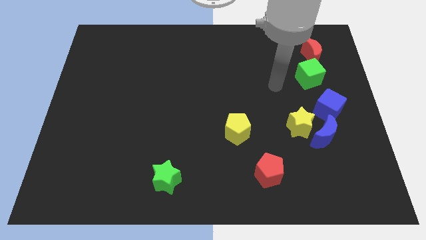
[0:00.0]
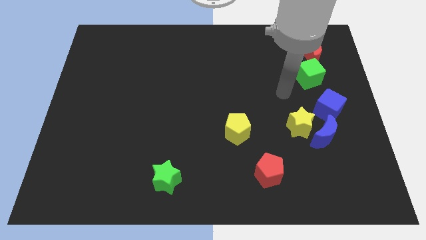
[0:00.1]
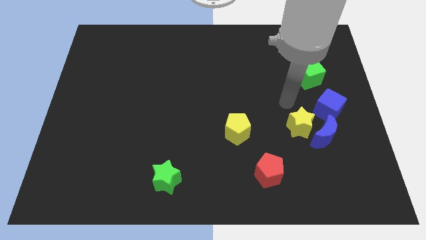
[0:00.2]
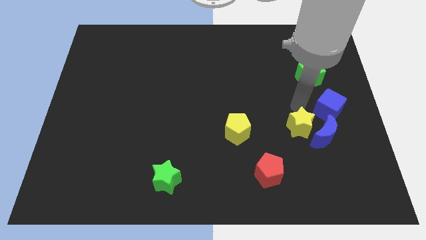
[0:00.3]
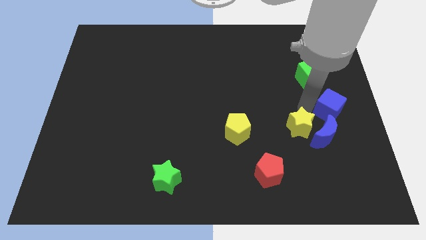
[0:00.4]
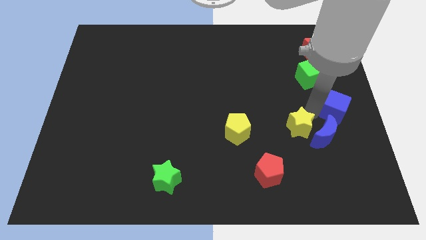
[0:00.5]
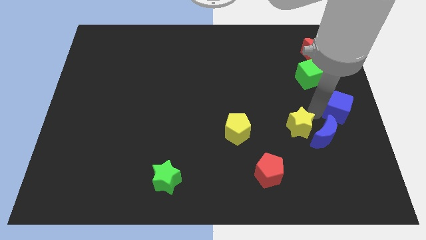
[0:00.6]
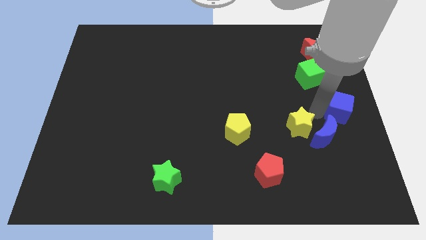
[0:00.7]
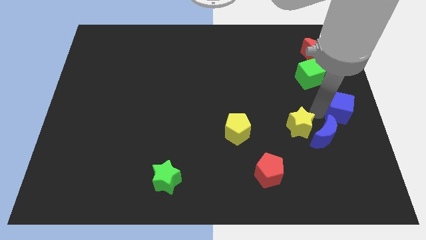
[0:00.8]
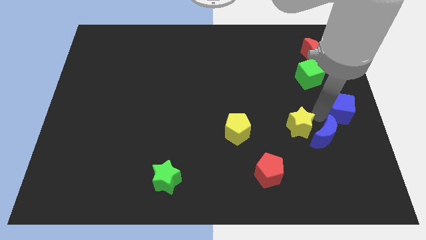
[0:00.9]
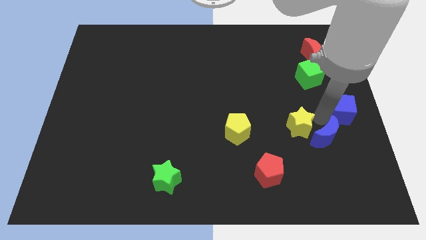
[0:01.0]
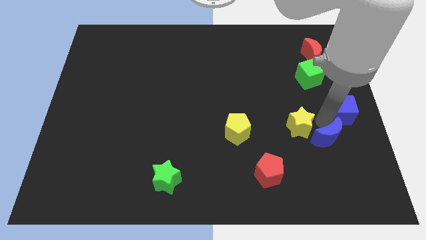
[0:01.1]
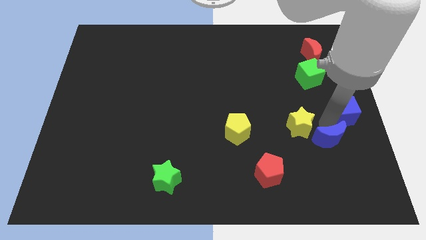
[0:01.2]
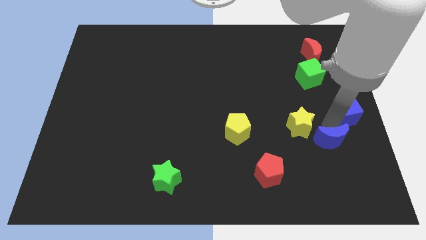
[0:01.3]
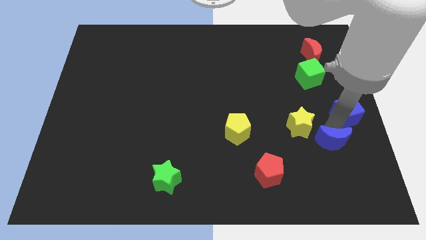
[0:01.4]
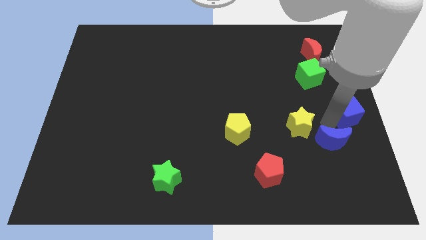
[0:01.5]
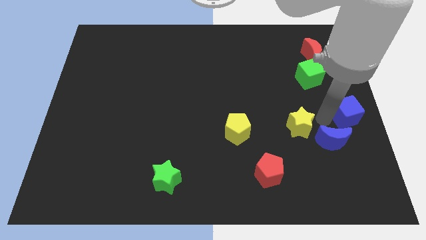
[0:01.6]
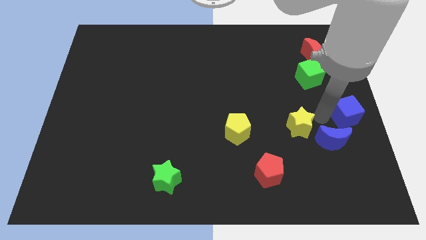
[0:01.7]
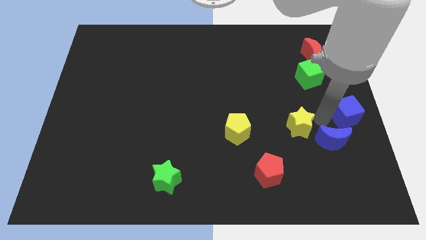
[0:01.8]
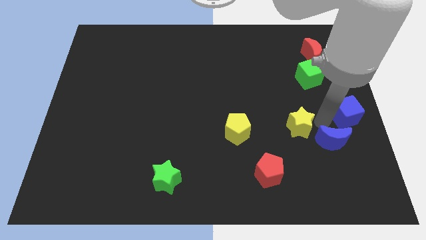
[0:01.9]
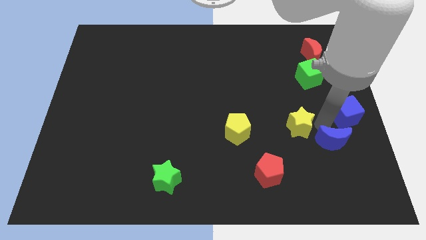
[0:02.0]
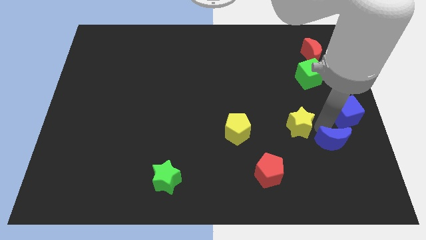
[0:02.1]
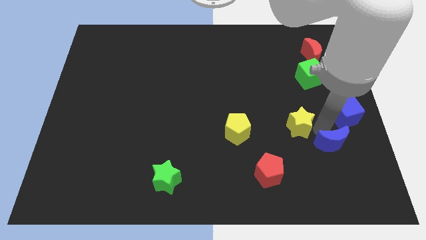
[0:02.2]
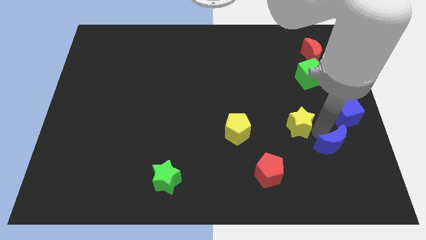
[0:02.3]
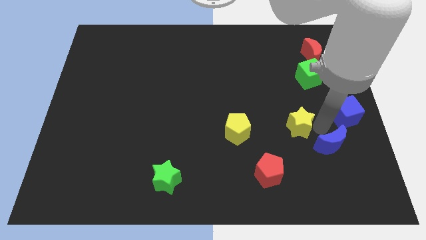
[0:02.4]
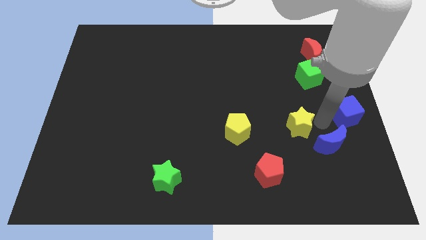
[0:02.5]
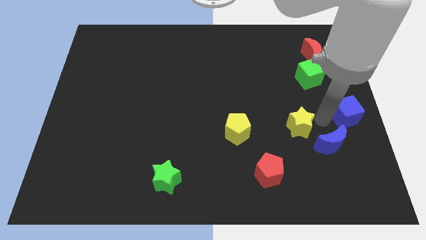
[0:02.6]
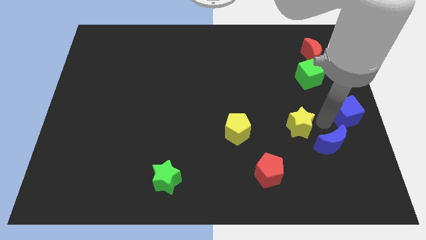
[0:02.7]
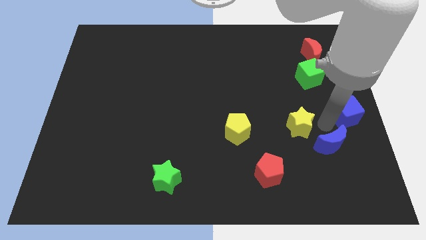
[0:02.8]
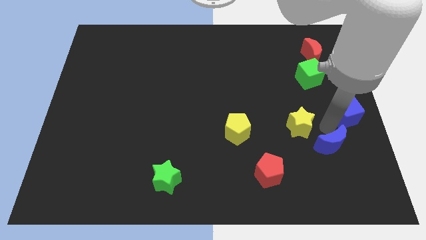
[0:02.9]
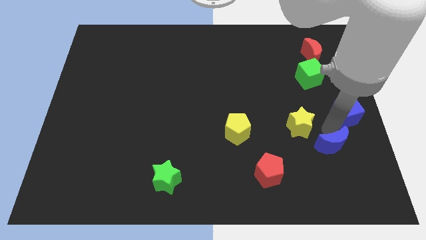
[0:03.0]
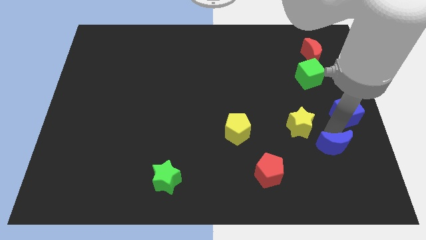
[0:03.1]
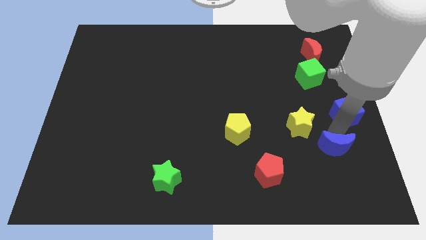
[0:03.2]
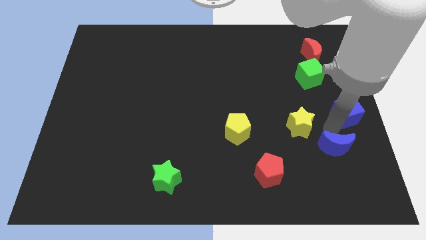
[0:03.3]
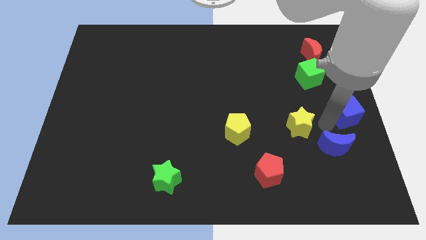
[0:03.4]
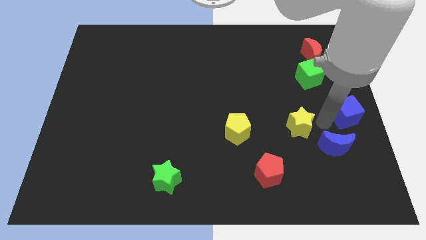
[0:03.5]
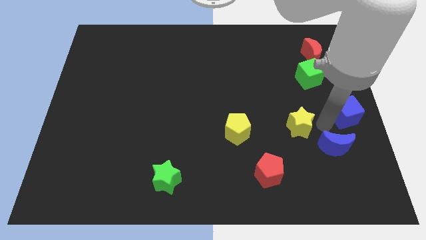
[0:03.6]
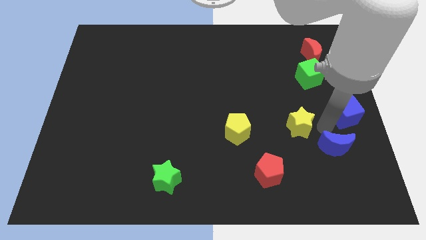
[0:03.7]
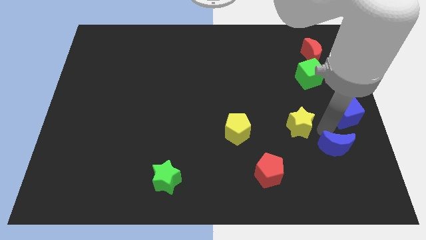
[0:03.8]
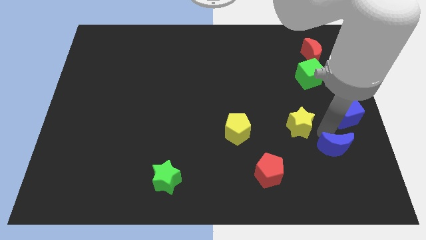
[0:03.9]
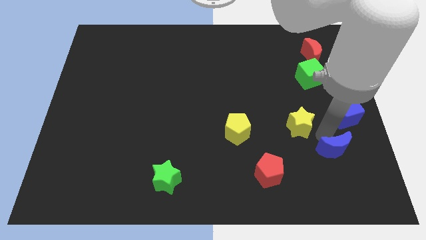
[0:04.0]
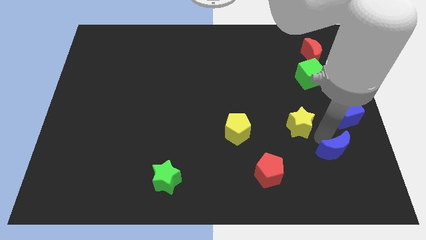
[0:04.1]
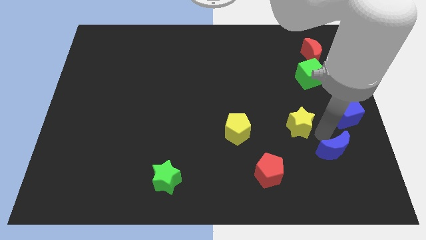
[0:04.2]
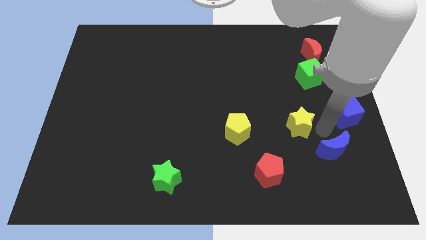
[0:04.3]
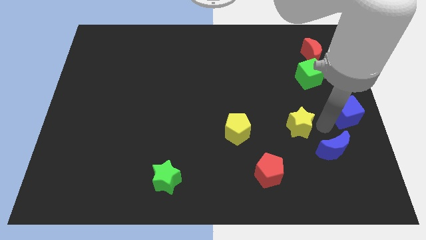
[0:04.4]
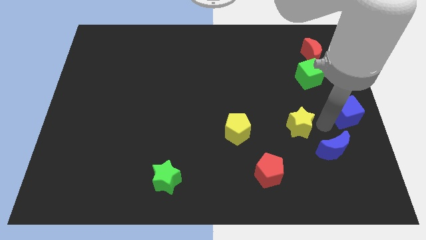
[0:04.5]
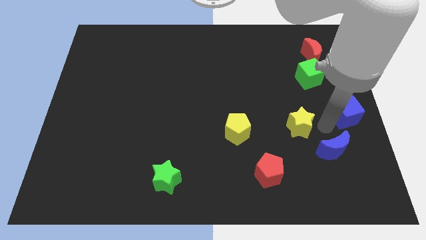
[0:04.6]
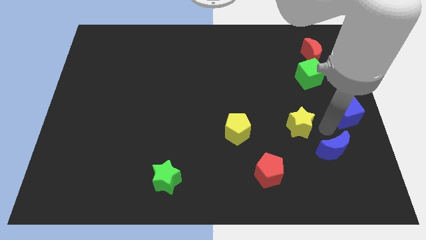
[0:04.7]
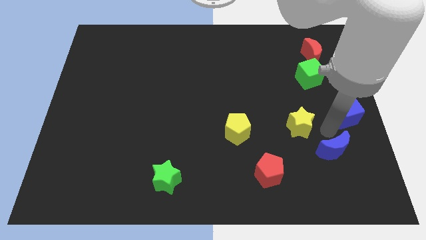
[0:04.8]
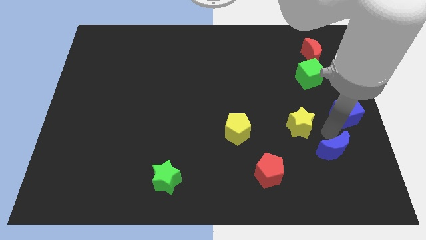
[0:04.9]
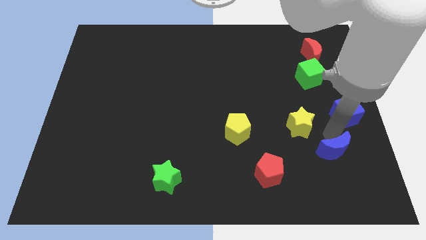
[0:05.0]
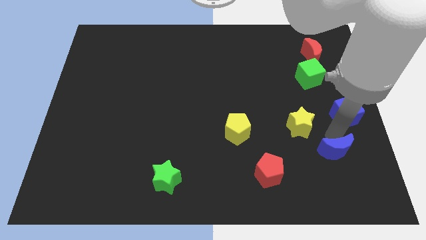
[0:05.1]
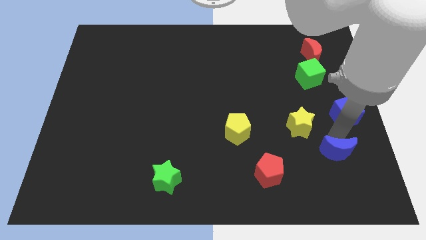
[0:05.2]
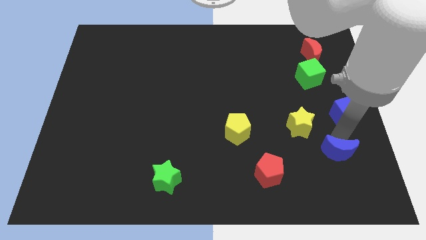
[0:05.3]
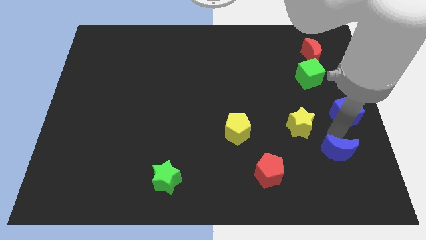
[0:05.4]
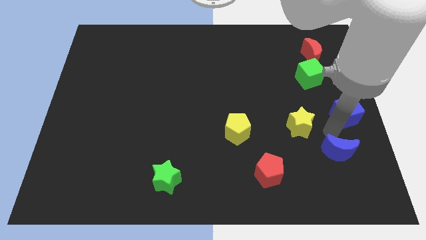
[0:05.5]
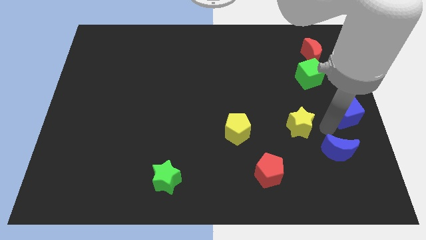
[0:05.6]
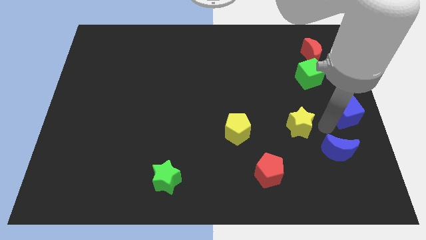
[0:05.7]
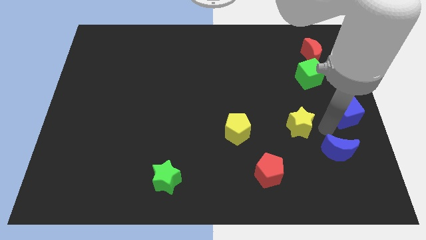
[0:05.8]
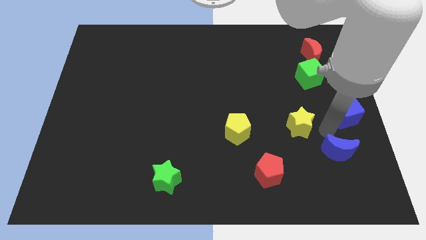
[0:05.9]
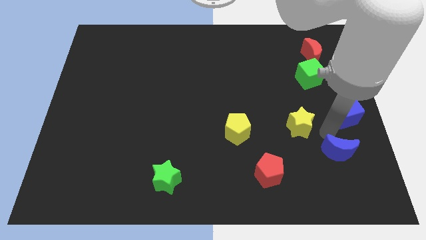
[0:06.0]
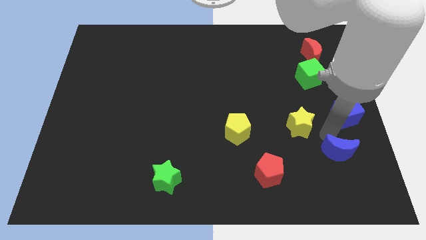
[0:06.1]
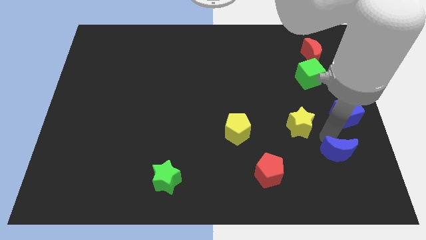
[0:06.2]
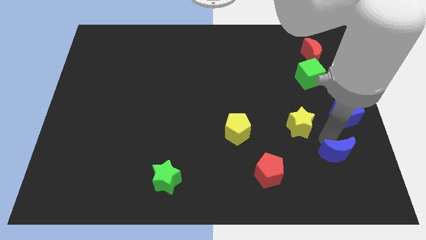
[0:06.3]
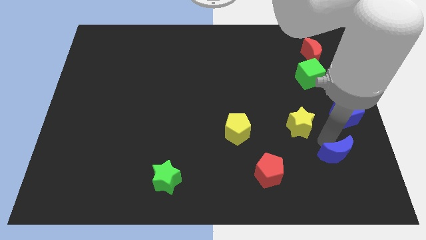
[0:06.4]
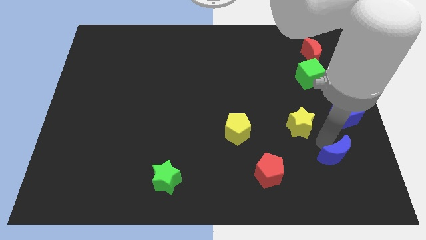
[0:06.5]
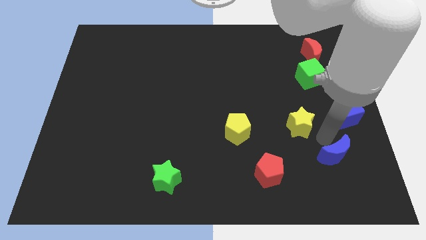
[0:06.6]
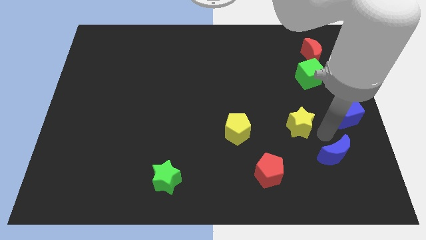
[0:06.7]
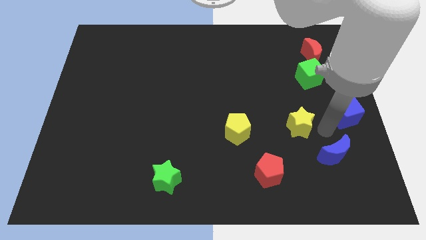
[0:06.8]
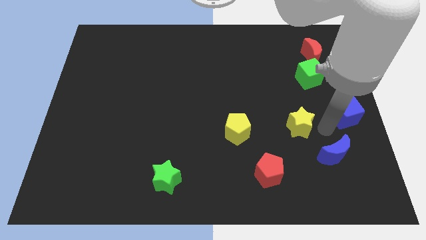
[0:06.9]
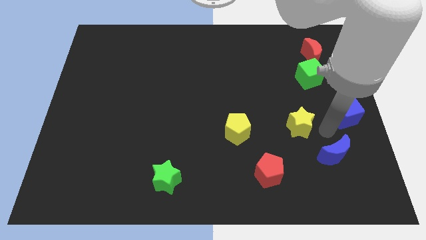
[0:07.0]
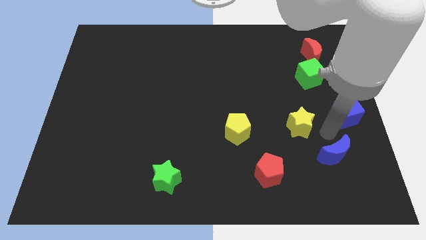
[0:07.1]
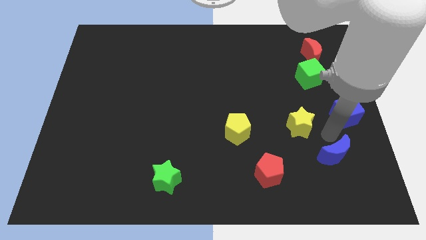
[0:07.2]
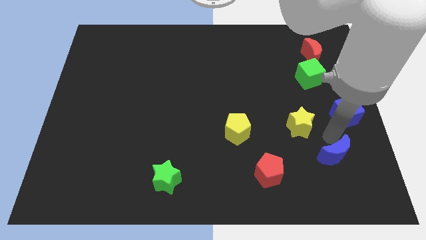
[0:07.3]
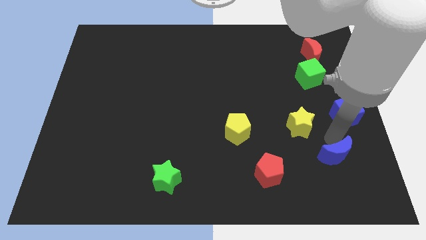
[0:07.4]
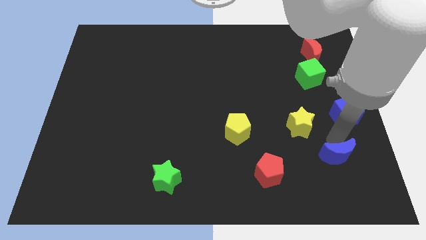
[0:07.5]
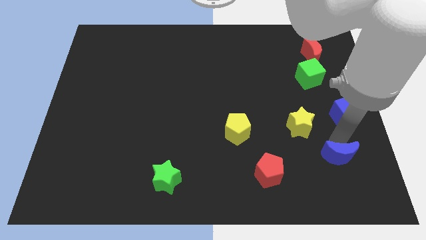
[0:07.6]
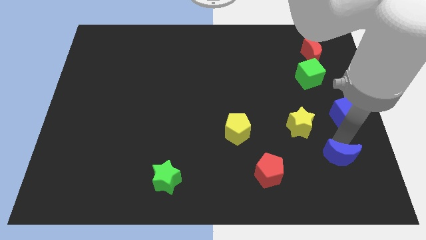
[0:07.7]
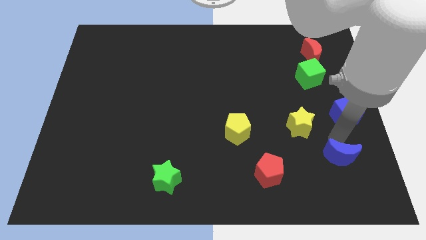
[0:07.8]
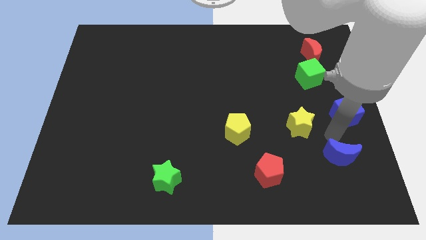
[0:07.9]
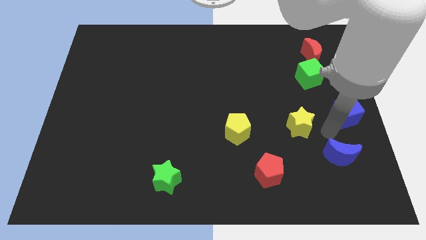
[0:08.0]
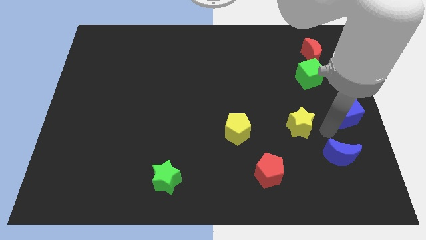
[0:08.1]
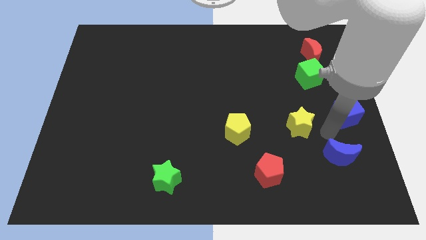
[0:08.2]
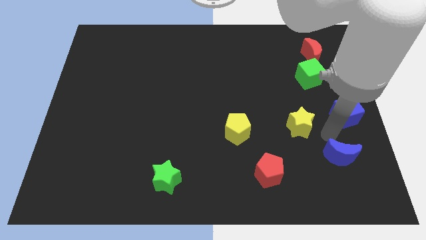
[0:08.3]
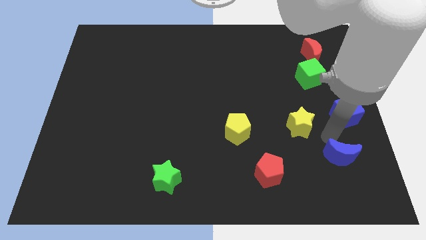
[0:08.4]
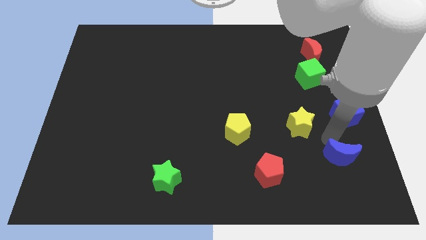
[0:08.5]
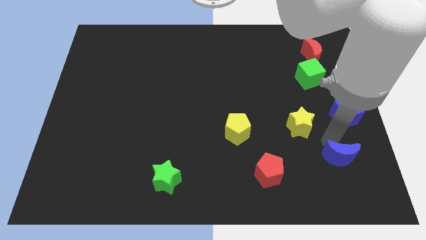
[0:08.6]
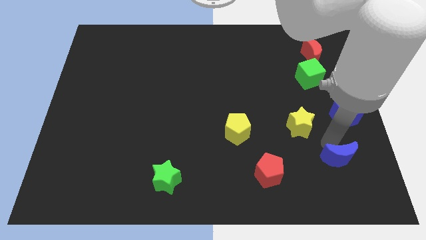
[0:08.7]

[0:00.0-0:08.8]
move the blue moon away from the yellow star and blue cube

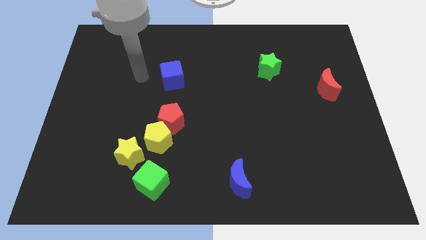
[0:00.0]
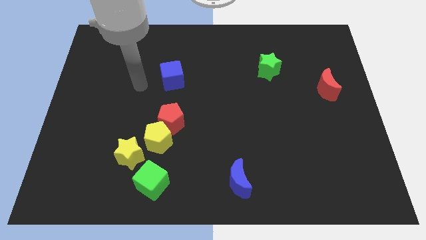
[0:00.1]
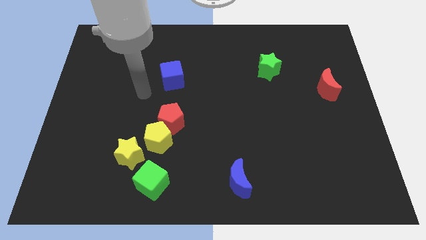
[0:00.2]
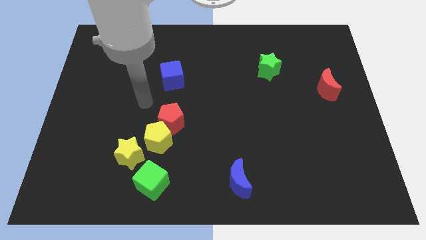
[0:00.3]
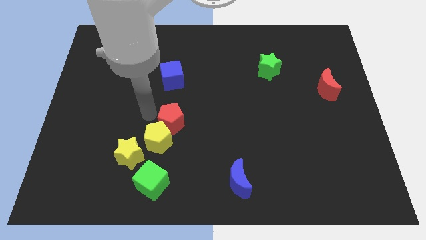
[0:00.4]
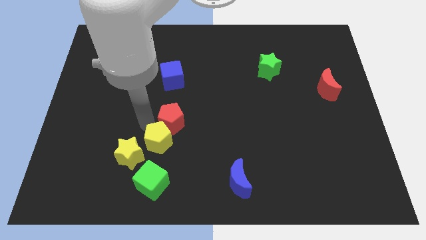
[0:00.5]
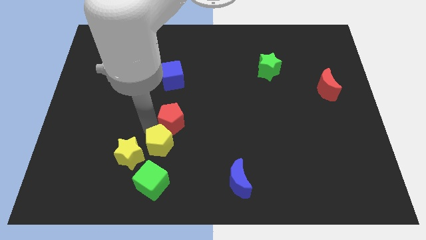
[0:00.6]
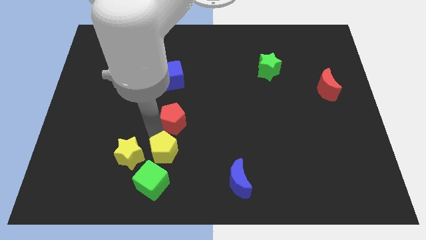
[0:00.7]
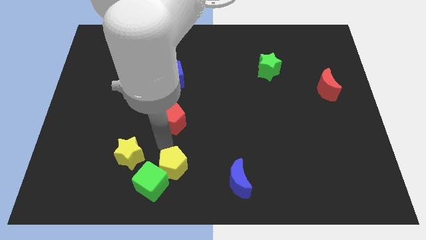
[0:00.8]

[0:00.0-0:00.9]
pull the red pentagon apart from the yellow pentagon
